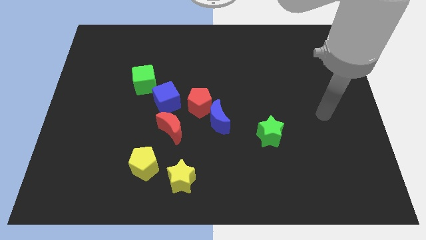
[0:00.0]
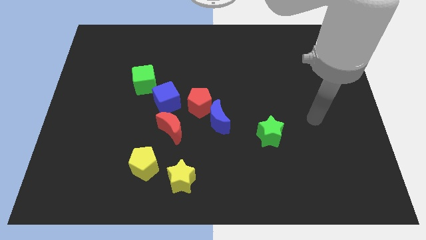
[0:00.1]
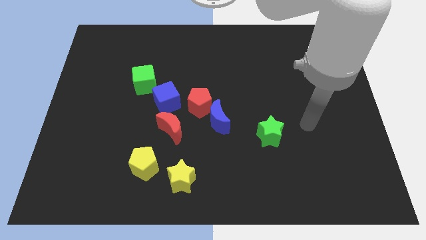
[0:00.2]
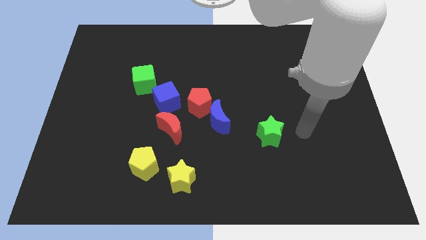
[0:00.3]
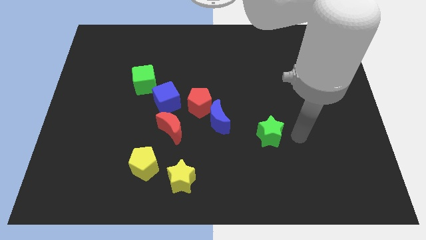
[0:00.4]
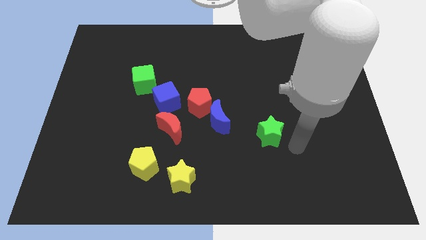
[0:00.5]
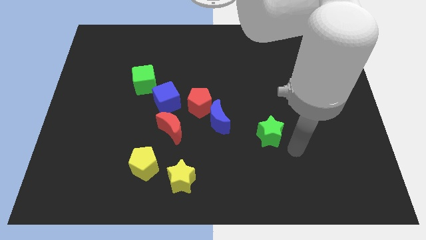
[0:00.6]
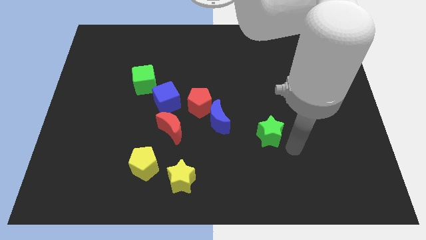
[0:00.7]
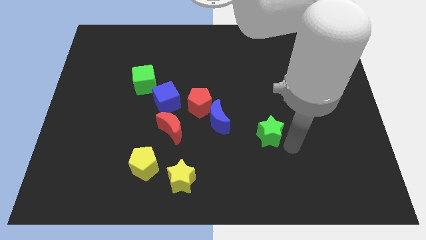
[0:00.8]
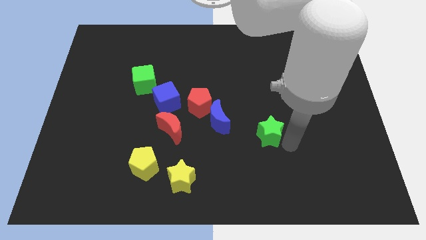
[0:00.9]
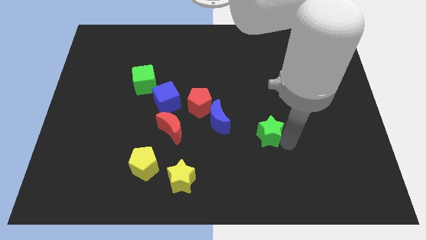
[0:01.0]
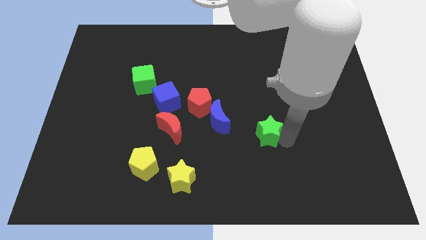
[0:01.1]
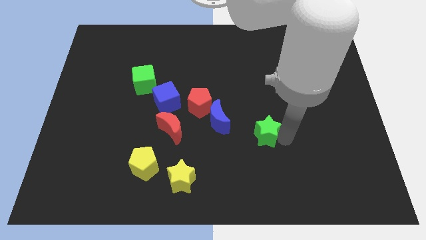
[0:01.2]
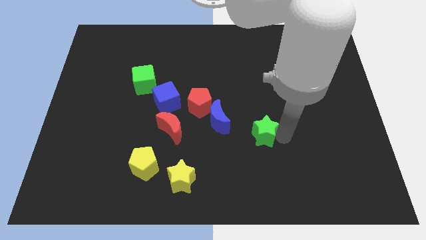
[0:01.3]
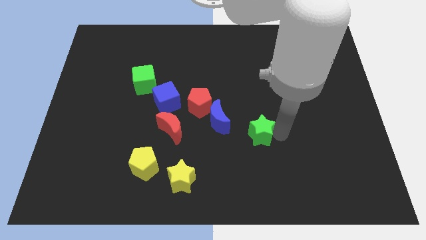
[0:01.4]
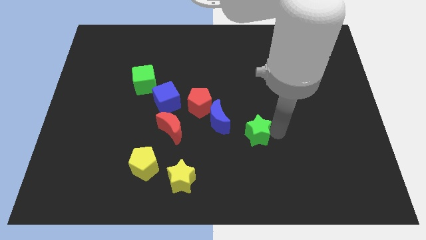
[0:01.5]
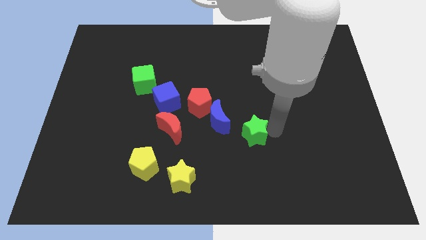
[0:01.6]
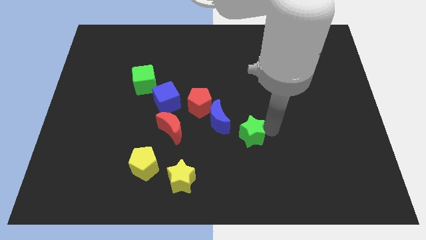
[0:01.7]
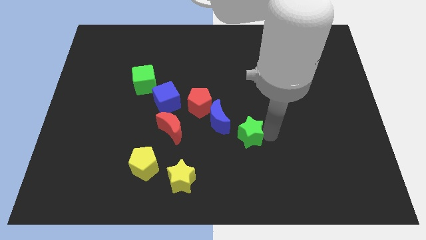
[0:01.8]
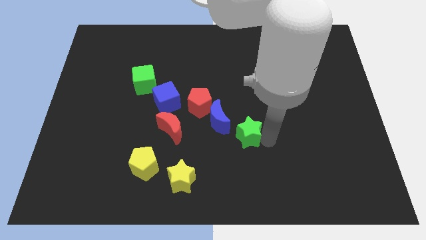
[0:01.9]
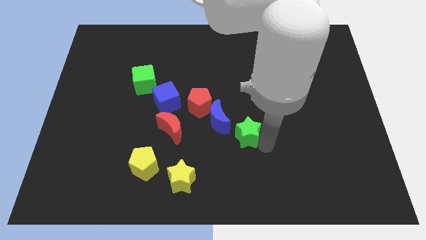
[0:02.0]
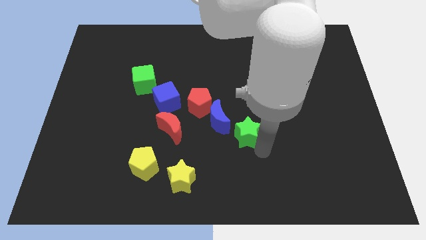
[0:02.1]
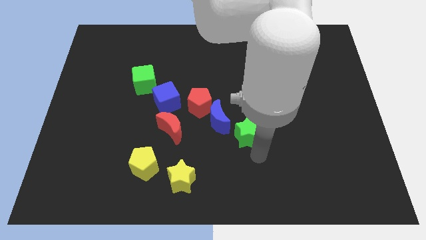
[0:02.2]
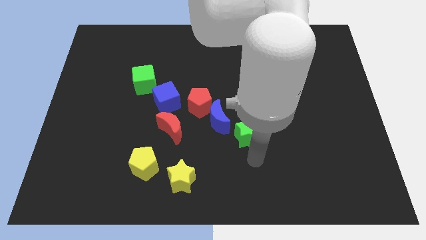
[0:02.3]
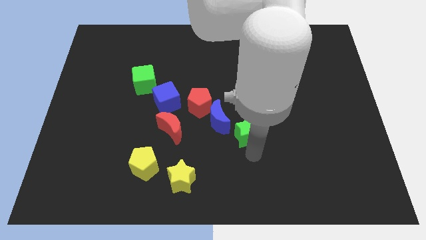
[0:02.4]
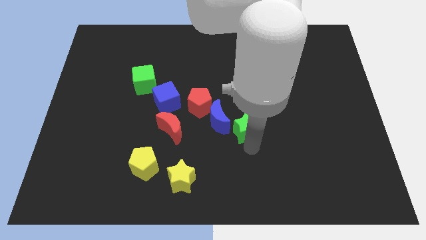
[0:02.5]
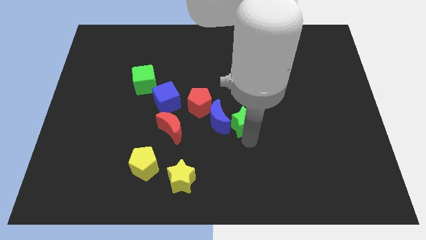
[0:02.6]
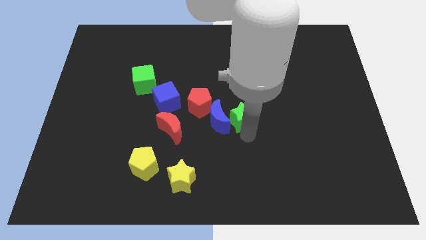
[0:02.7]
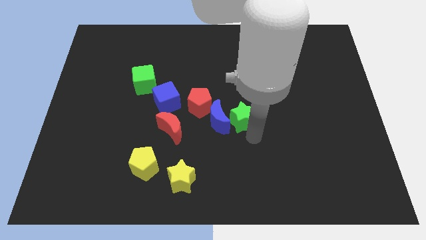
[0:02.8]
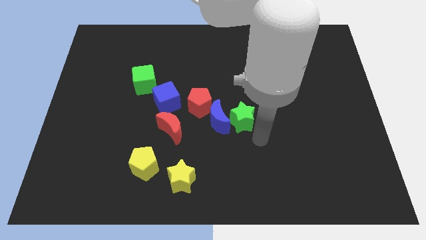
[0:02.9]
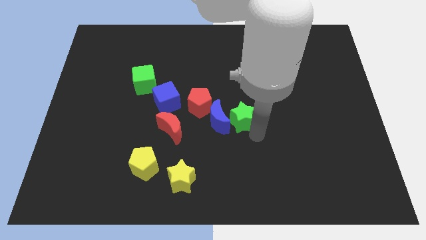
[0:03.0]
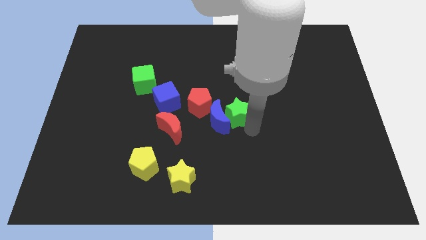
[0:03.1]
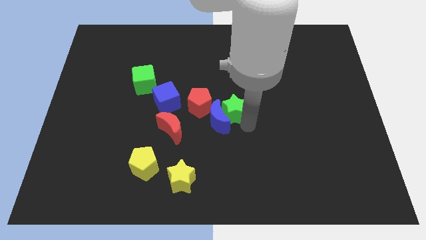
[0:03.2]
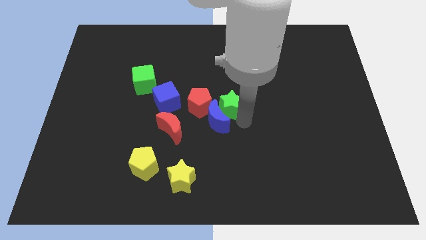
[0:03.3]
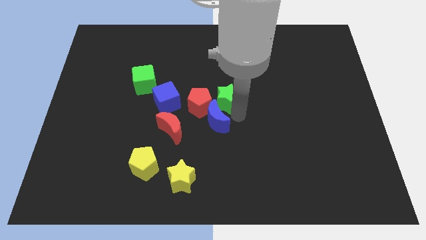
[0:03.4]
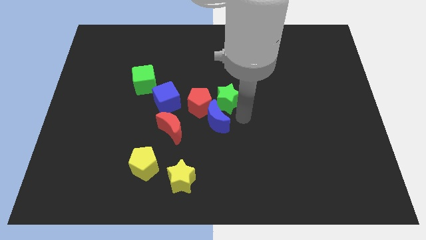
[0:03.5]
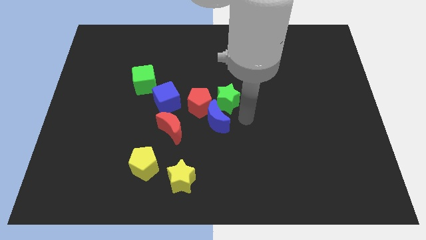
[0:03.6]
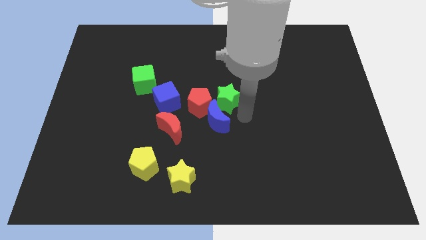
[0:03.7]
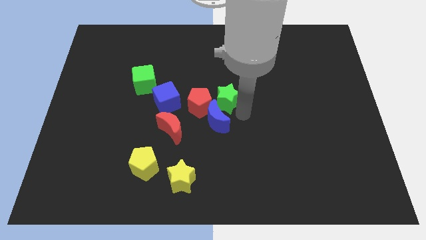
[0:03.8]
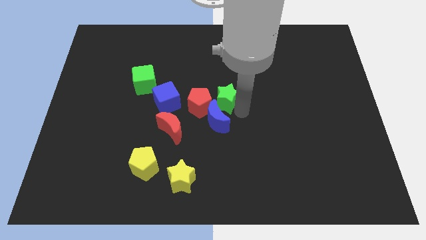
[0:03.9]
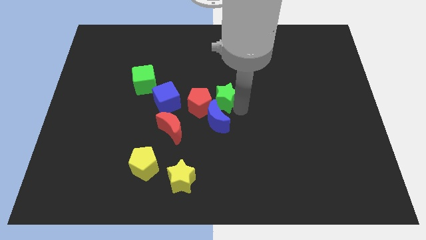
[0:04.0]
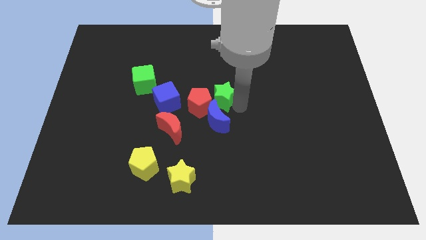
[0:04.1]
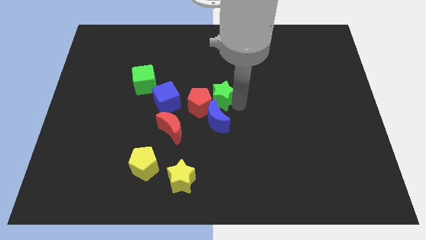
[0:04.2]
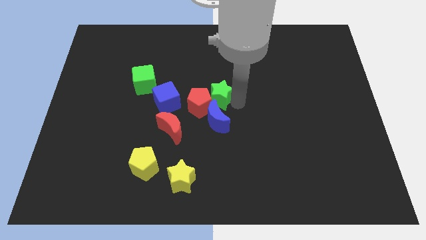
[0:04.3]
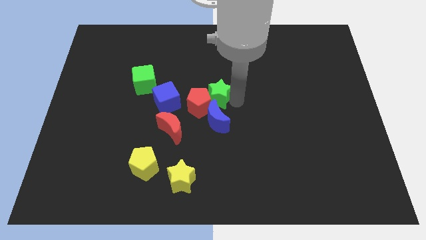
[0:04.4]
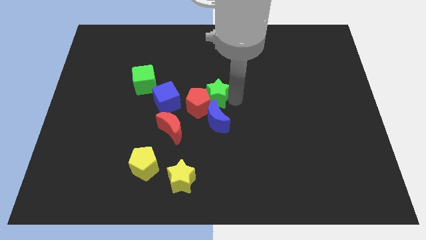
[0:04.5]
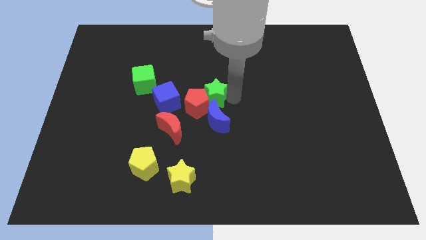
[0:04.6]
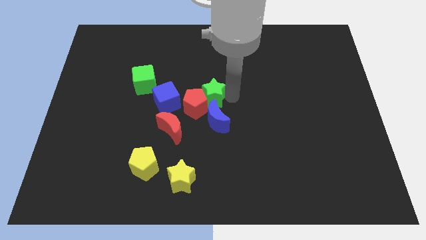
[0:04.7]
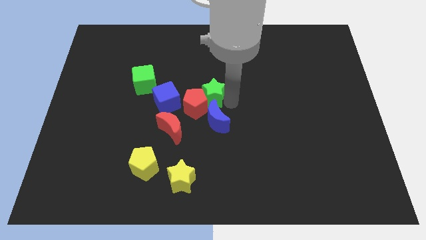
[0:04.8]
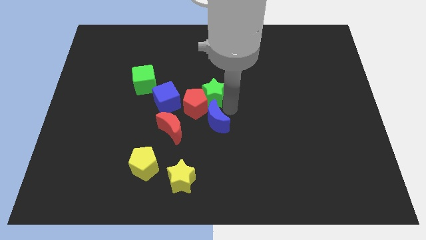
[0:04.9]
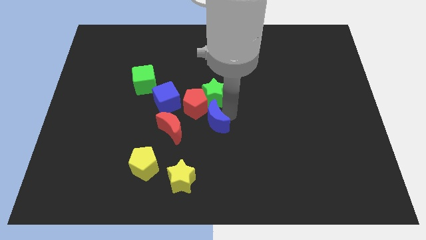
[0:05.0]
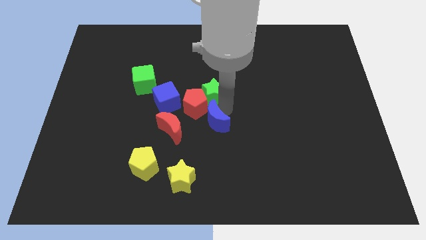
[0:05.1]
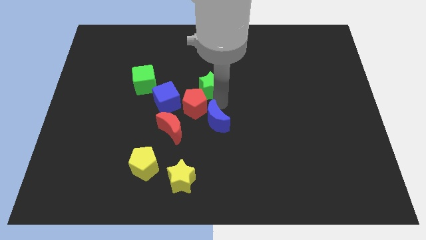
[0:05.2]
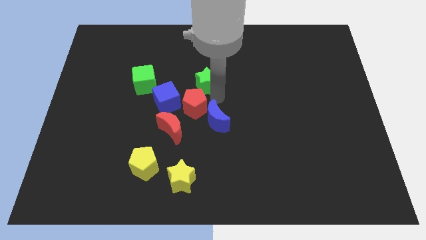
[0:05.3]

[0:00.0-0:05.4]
slide the green star up and to the left diagonally

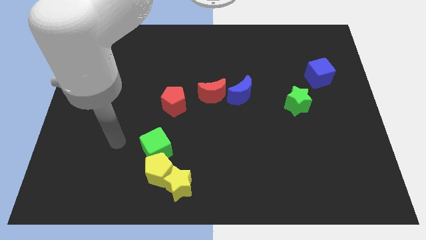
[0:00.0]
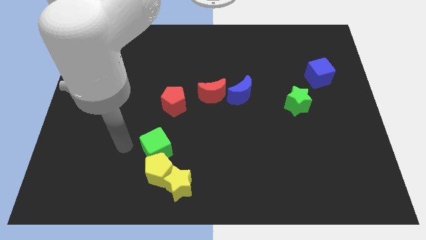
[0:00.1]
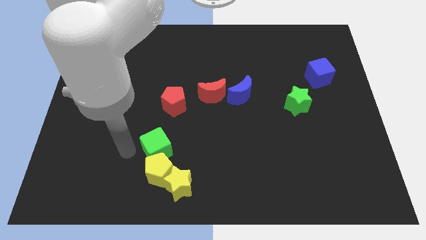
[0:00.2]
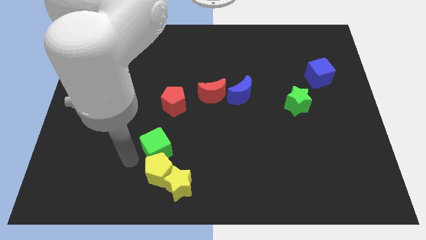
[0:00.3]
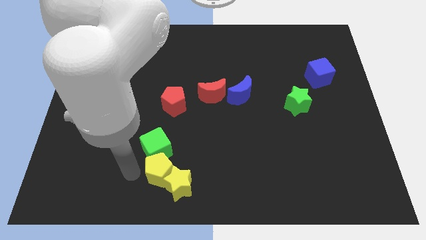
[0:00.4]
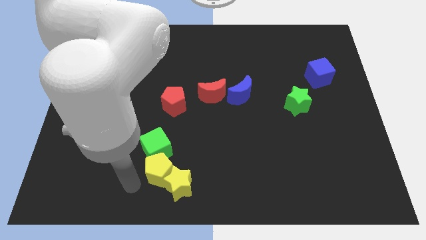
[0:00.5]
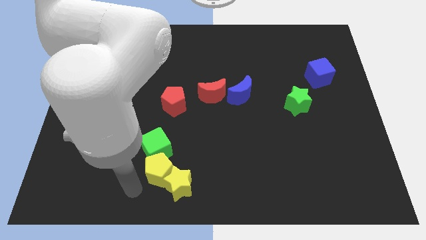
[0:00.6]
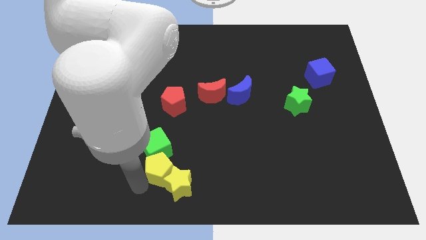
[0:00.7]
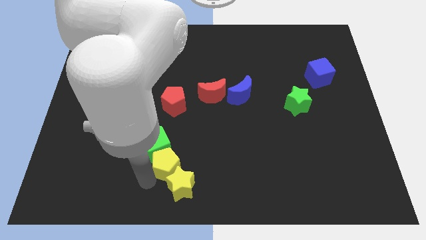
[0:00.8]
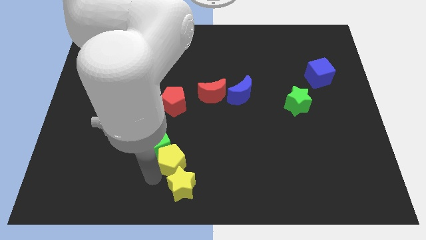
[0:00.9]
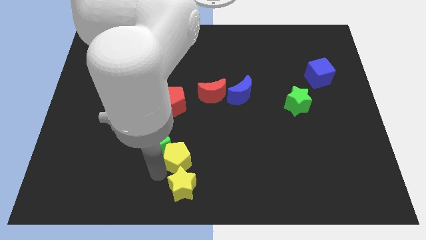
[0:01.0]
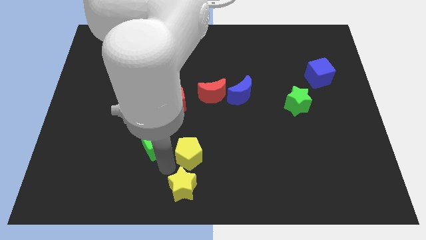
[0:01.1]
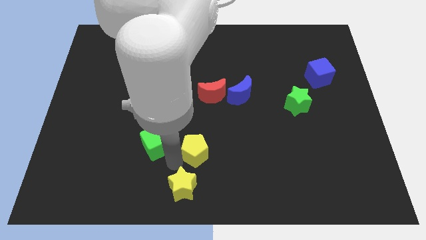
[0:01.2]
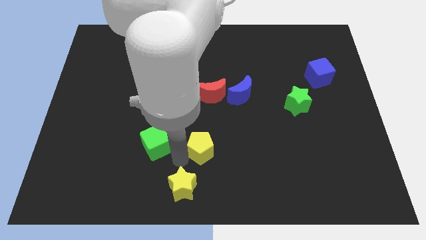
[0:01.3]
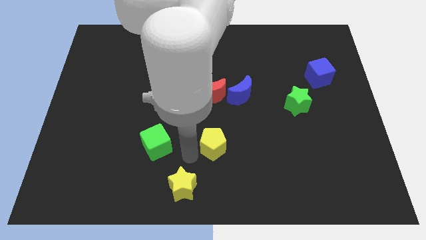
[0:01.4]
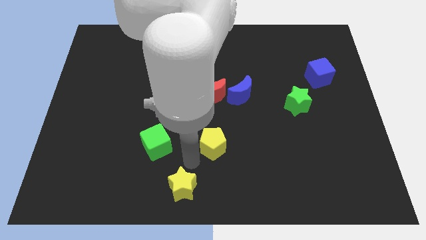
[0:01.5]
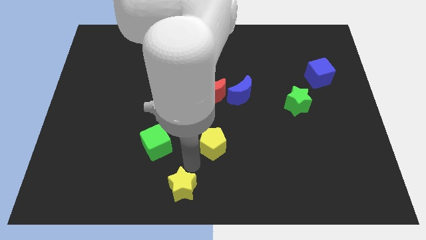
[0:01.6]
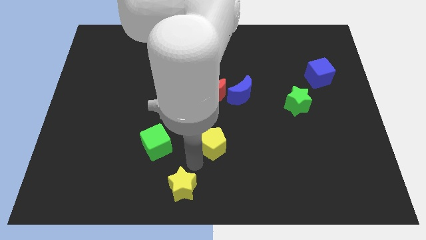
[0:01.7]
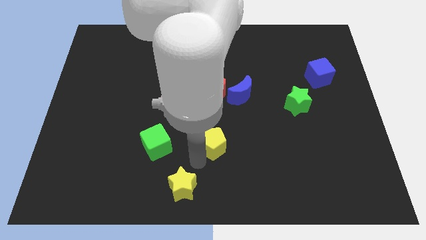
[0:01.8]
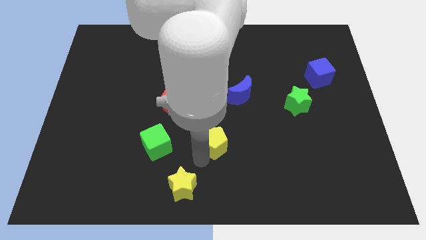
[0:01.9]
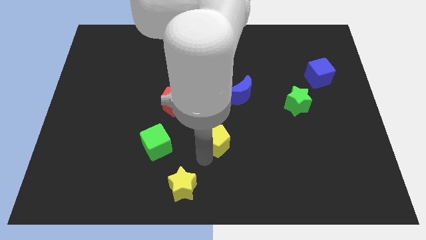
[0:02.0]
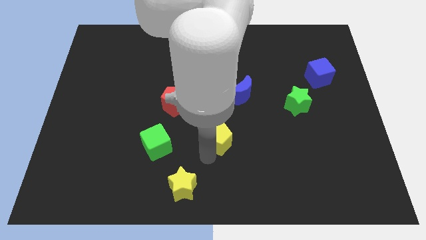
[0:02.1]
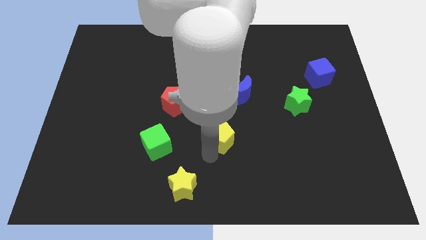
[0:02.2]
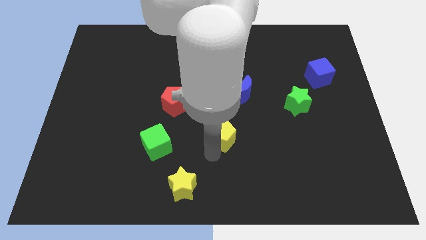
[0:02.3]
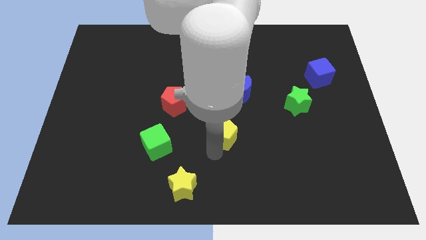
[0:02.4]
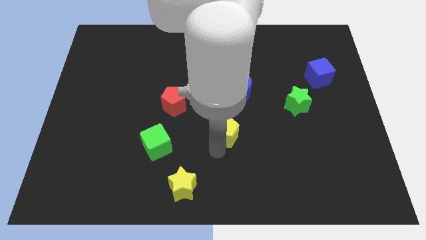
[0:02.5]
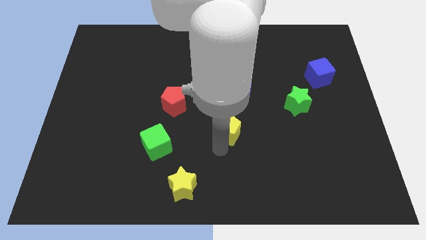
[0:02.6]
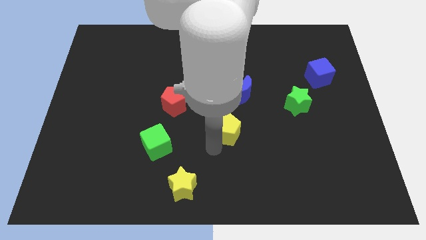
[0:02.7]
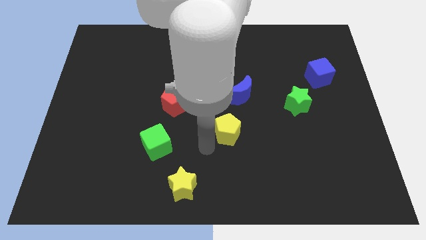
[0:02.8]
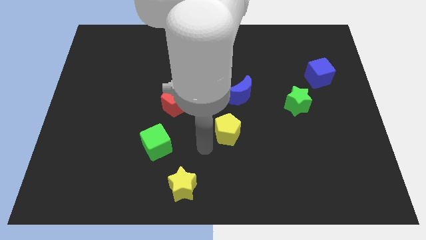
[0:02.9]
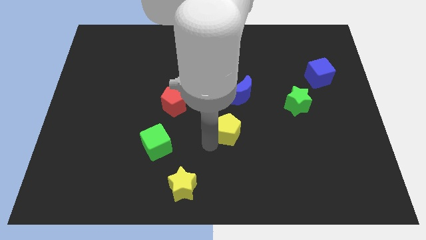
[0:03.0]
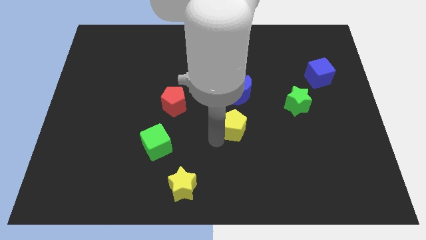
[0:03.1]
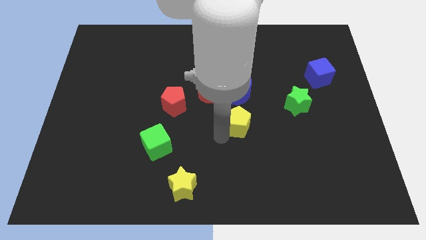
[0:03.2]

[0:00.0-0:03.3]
slide the yellow pentagon upwards and then right
